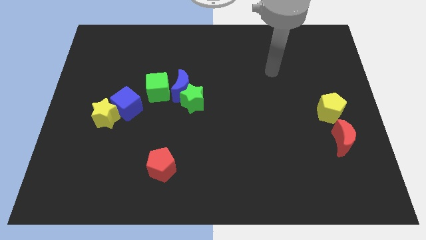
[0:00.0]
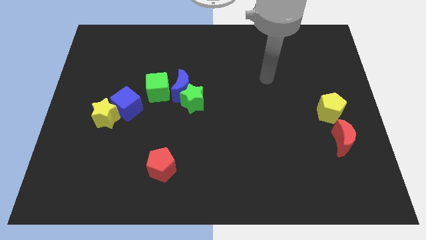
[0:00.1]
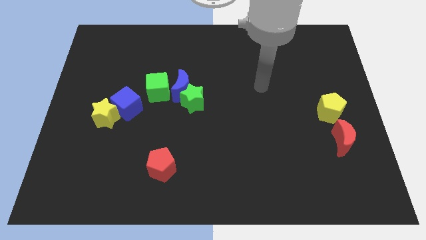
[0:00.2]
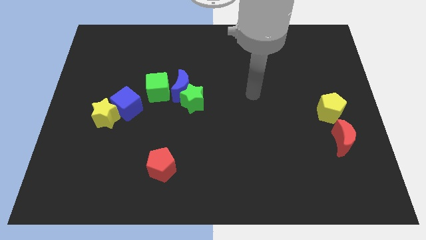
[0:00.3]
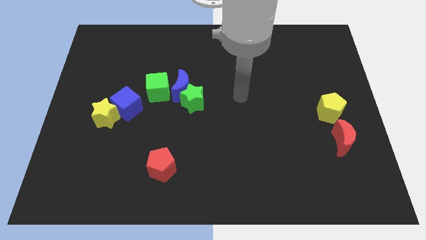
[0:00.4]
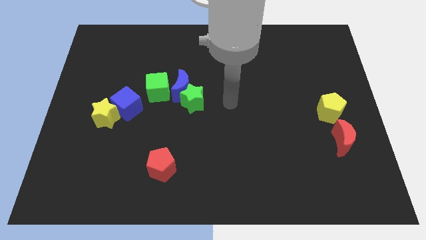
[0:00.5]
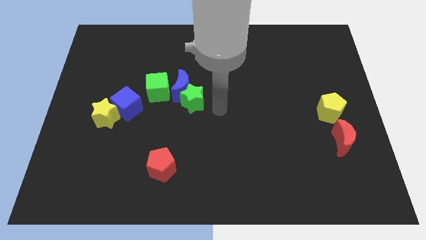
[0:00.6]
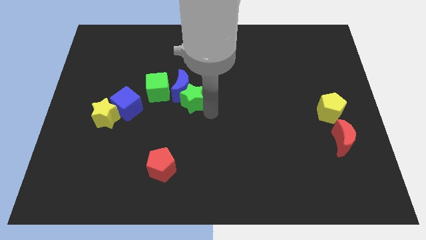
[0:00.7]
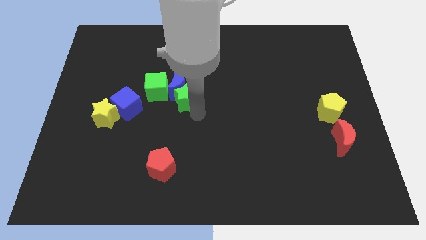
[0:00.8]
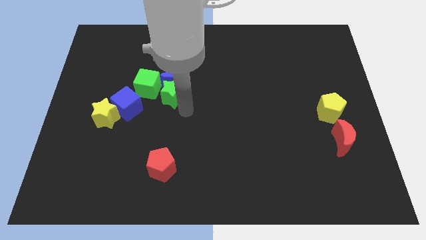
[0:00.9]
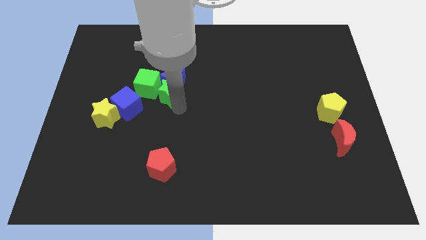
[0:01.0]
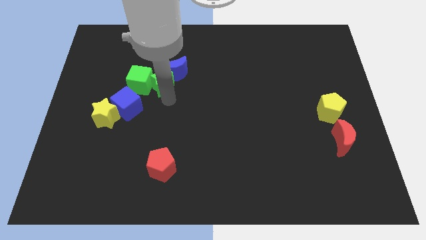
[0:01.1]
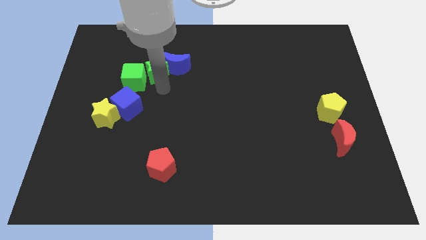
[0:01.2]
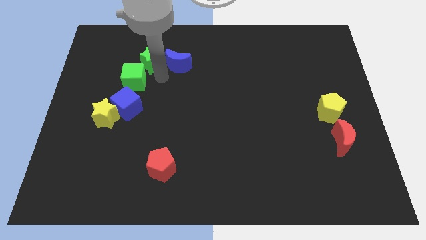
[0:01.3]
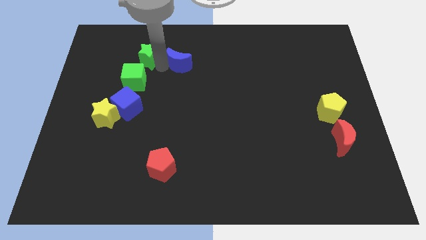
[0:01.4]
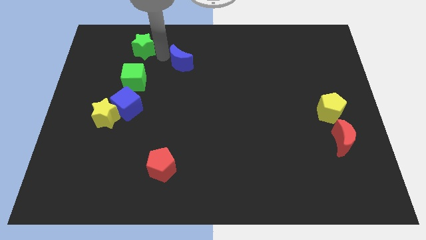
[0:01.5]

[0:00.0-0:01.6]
separate the blue moon from the green star and green cube

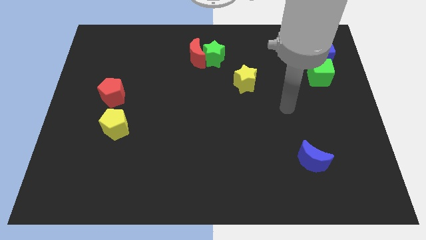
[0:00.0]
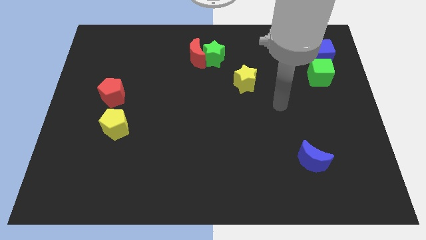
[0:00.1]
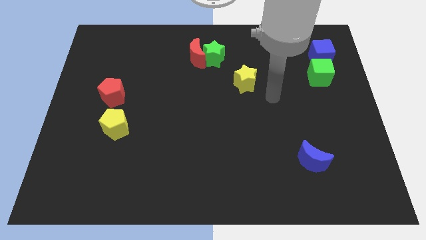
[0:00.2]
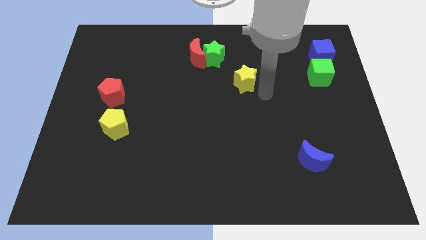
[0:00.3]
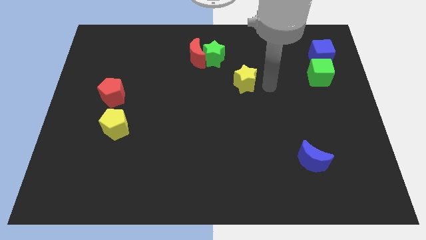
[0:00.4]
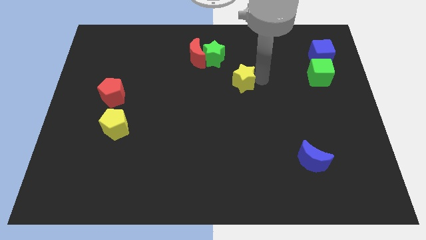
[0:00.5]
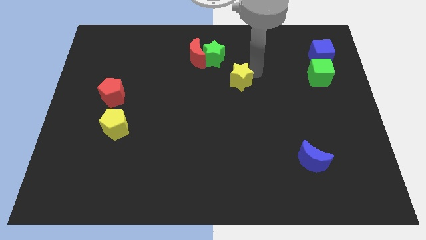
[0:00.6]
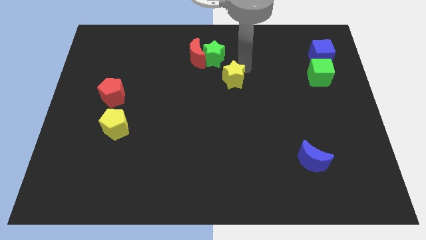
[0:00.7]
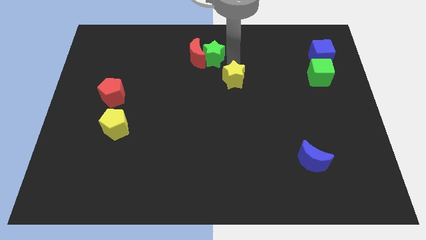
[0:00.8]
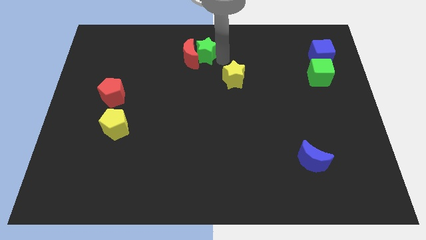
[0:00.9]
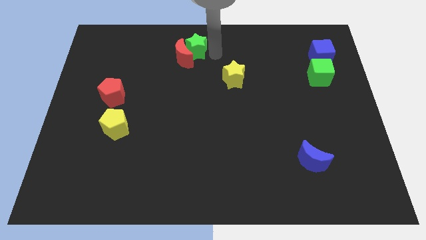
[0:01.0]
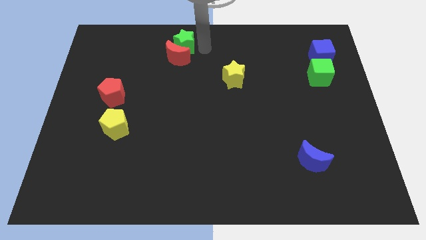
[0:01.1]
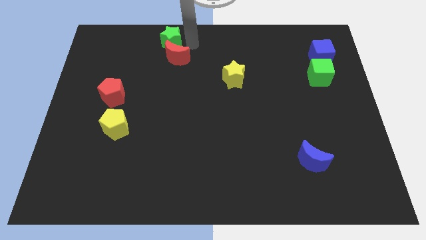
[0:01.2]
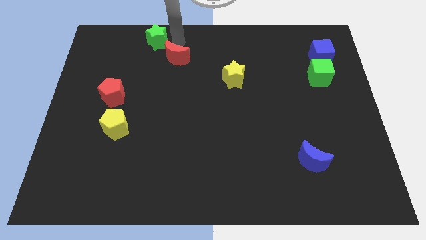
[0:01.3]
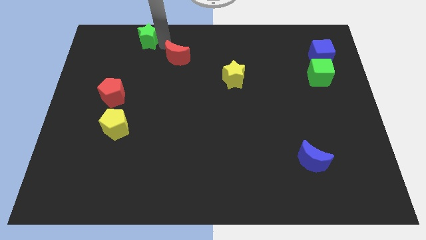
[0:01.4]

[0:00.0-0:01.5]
pull the red moon apart from the green star

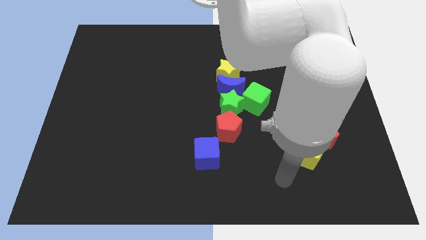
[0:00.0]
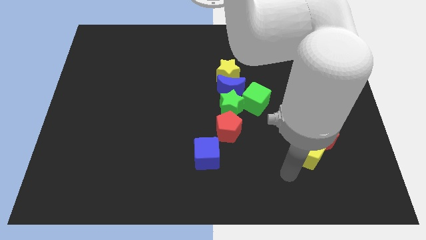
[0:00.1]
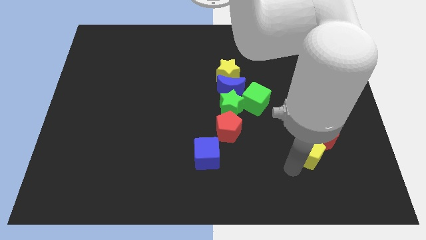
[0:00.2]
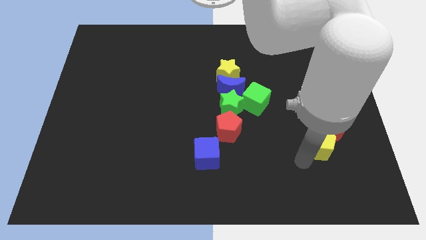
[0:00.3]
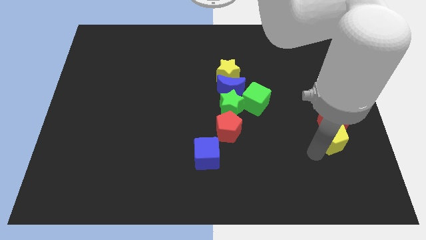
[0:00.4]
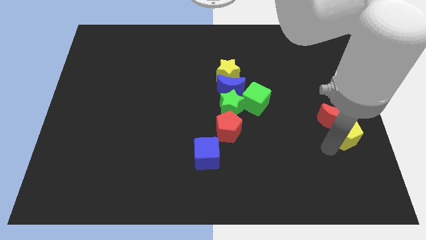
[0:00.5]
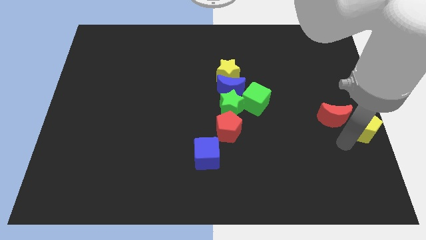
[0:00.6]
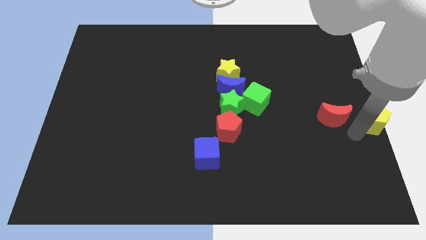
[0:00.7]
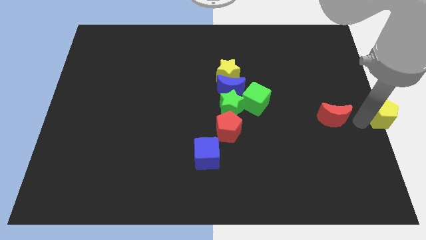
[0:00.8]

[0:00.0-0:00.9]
move the red moon away from the yellow pentagon

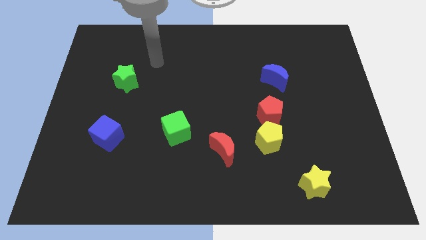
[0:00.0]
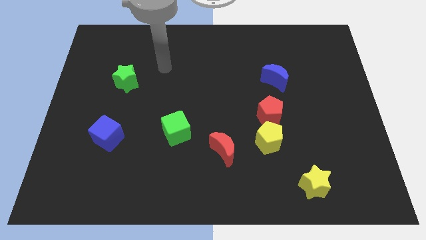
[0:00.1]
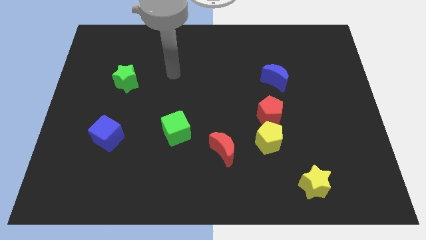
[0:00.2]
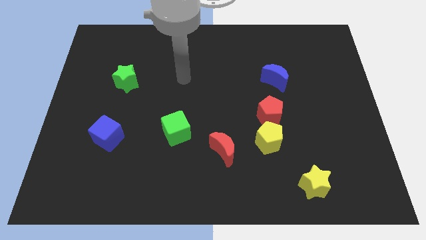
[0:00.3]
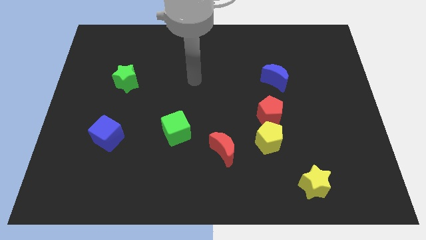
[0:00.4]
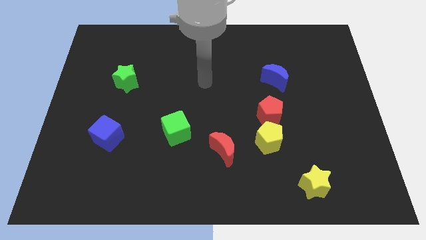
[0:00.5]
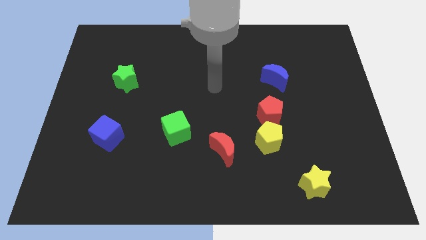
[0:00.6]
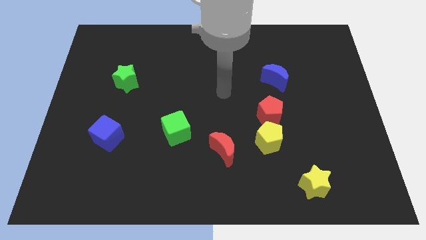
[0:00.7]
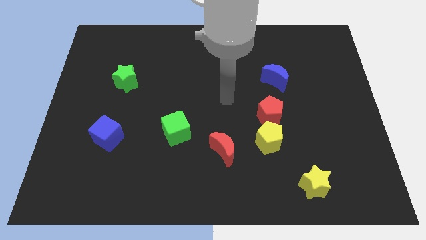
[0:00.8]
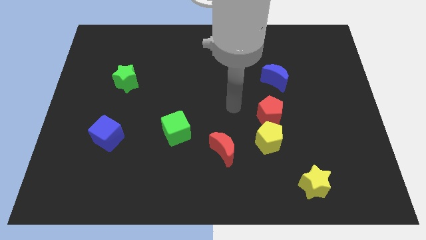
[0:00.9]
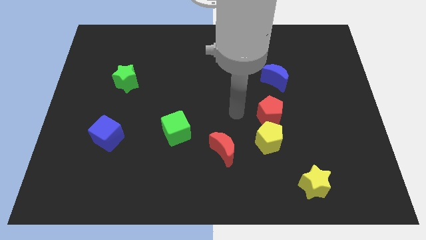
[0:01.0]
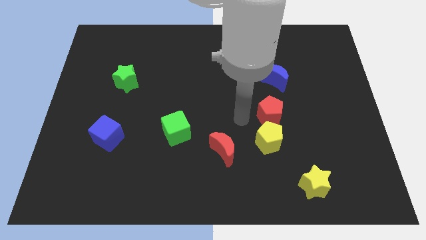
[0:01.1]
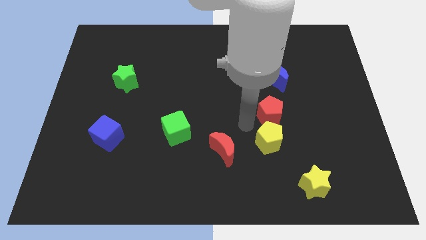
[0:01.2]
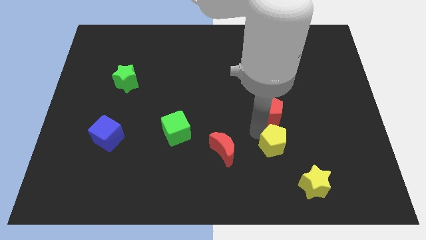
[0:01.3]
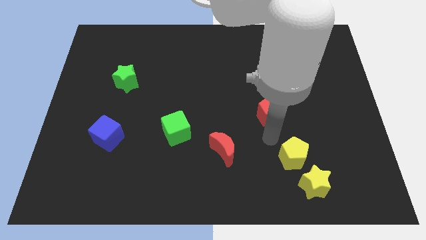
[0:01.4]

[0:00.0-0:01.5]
separate the red pentagon from the yellow pentagon

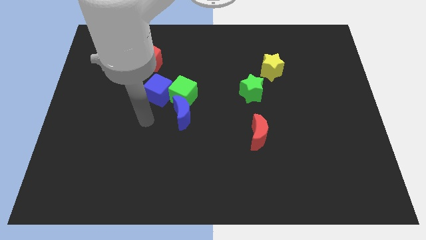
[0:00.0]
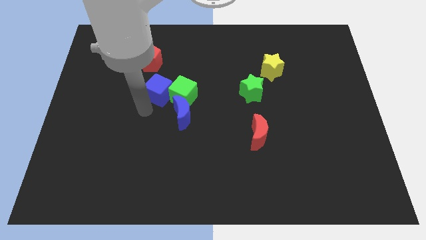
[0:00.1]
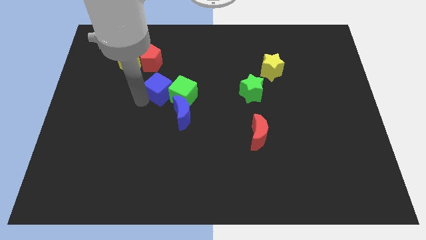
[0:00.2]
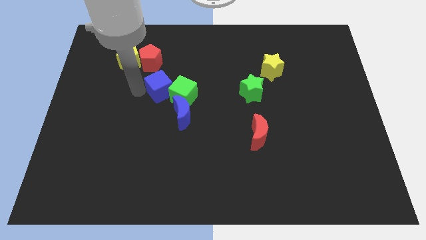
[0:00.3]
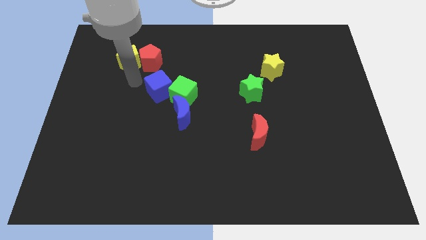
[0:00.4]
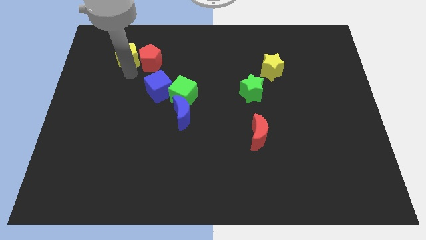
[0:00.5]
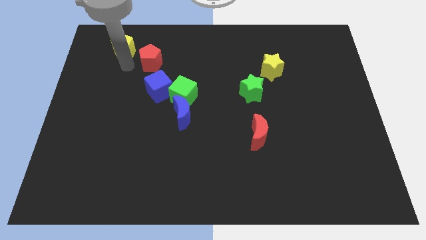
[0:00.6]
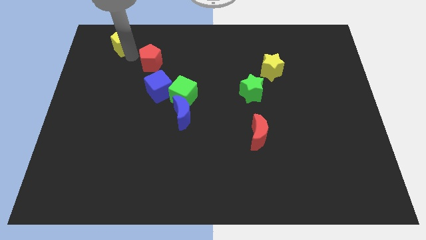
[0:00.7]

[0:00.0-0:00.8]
move the red pentagon away from the yellow pentagon

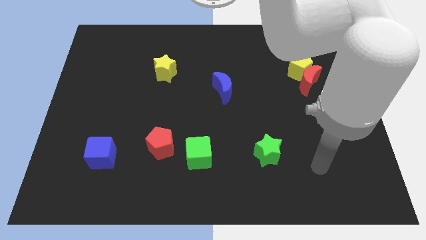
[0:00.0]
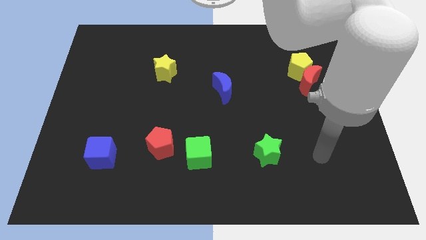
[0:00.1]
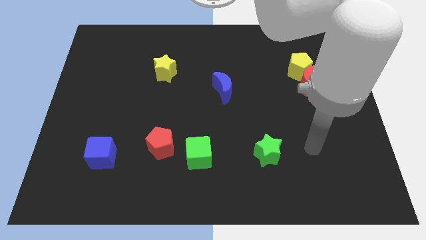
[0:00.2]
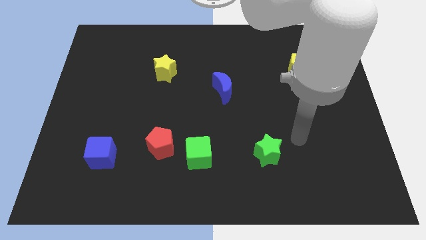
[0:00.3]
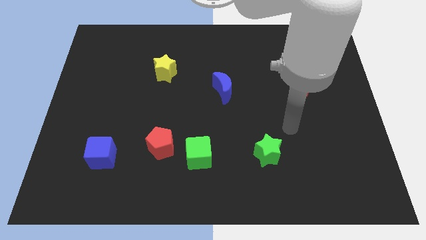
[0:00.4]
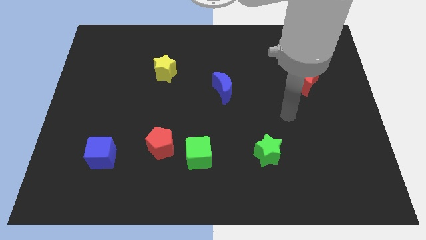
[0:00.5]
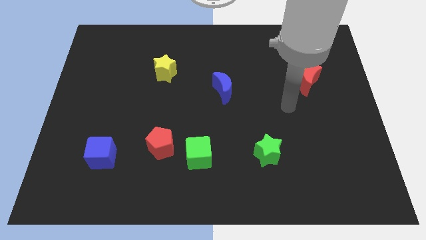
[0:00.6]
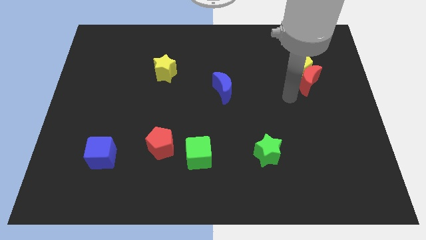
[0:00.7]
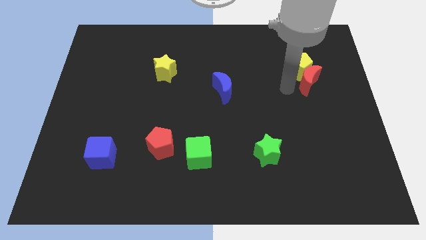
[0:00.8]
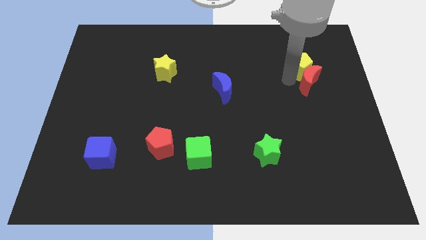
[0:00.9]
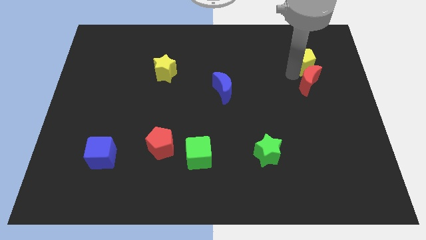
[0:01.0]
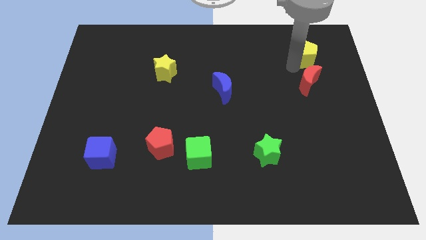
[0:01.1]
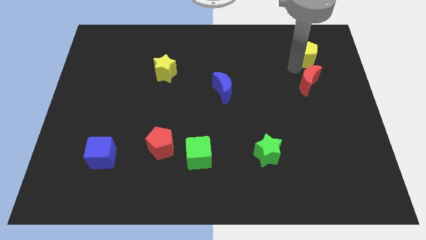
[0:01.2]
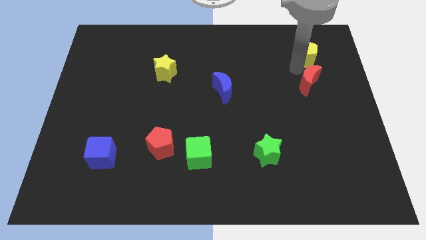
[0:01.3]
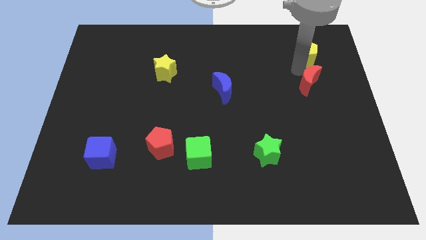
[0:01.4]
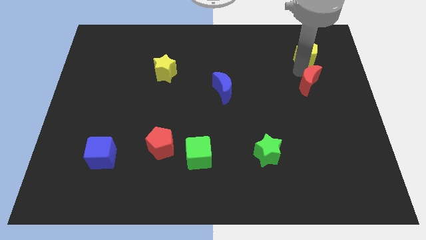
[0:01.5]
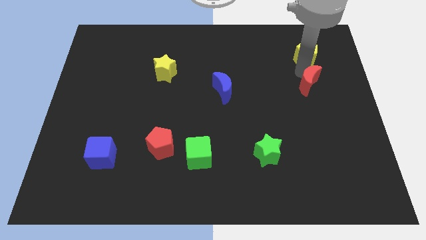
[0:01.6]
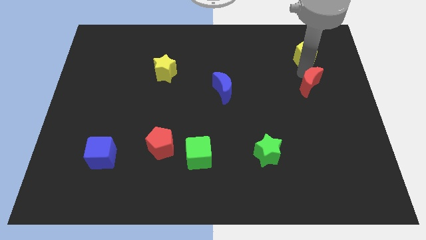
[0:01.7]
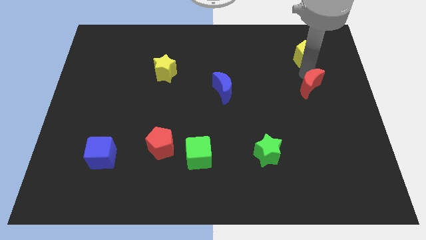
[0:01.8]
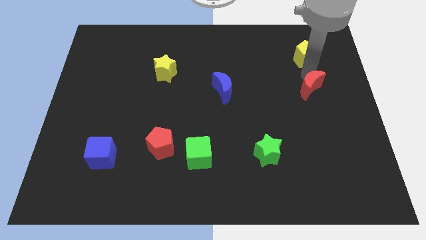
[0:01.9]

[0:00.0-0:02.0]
pull the red moon apart from the yellow pentagon

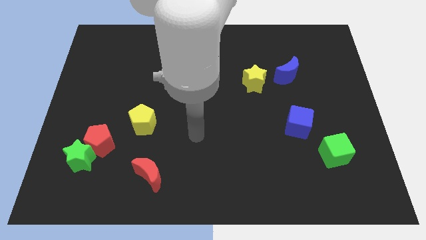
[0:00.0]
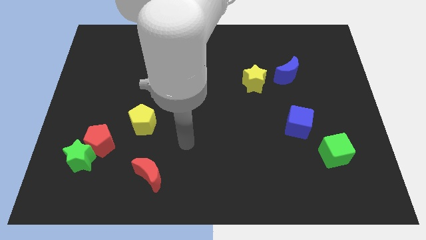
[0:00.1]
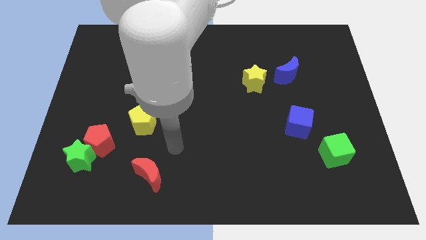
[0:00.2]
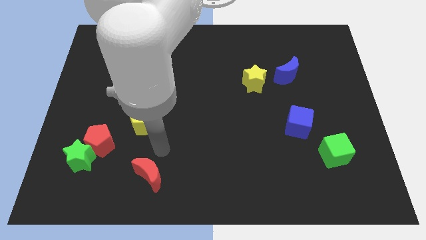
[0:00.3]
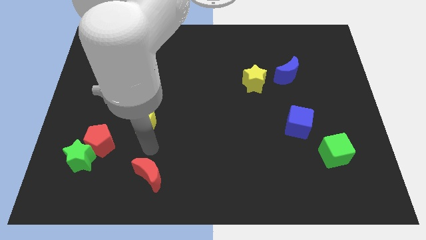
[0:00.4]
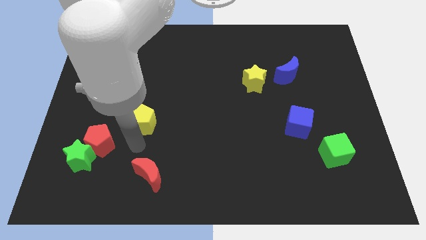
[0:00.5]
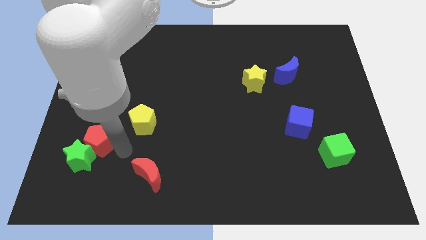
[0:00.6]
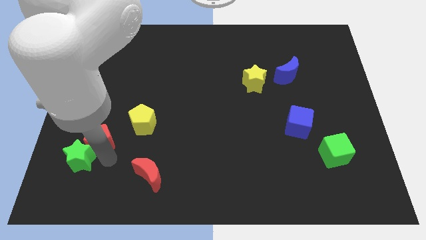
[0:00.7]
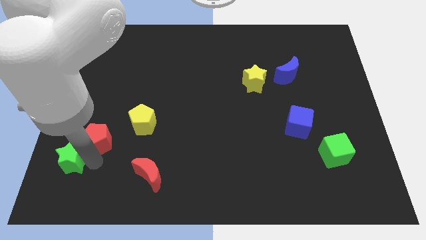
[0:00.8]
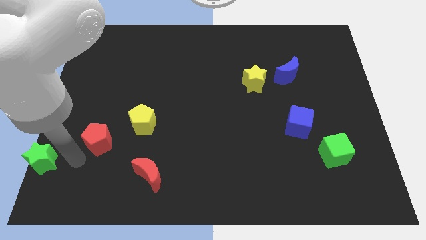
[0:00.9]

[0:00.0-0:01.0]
separate the red pentagon from the green star
